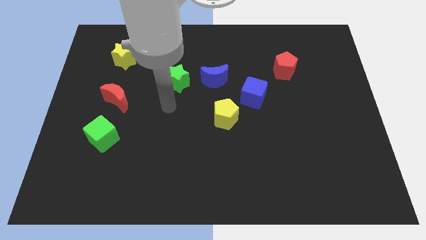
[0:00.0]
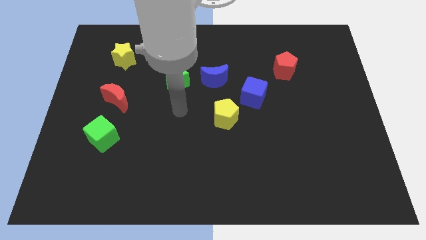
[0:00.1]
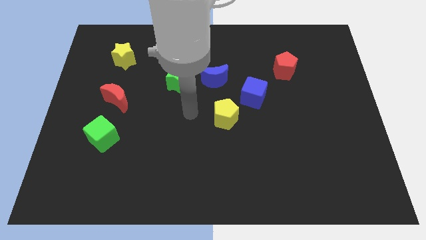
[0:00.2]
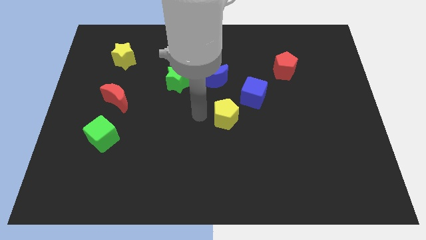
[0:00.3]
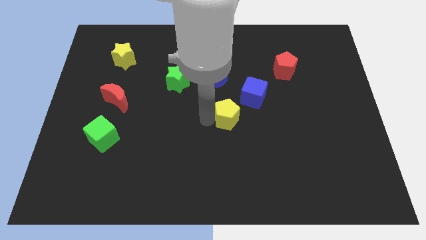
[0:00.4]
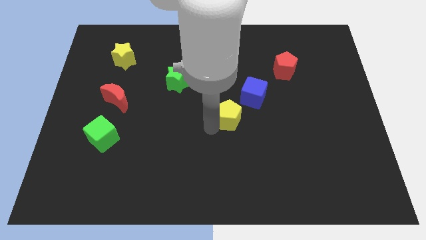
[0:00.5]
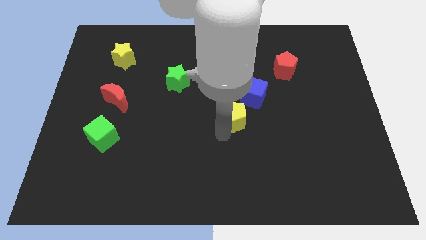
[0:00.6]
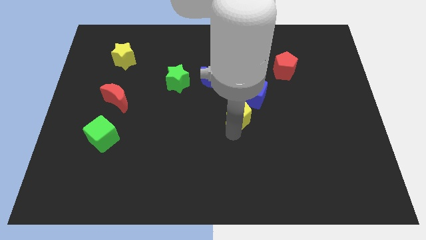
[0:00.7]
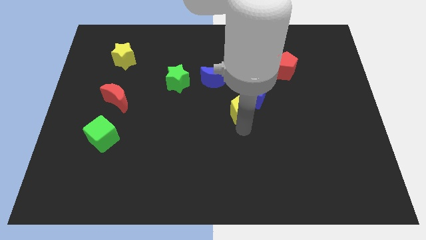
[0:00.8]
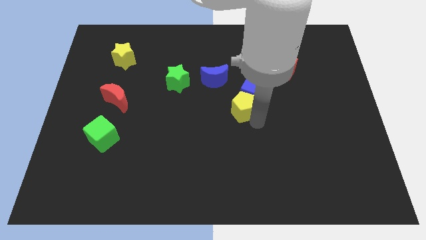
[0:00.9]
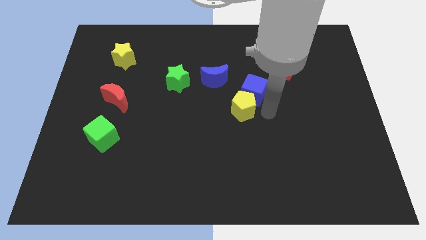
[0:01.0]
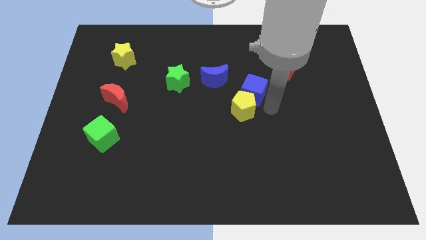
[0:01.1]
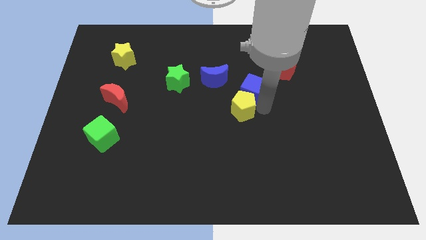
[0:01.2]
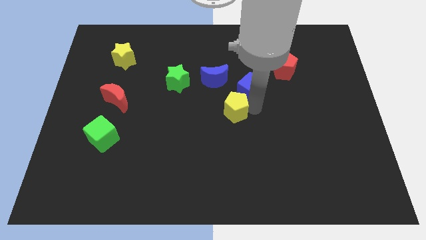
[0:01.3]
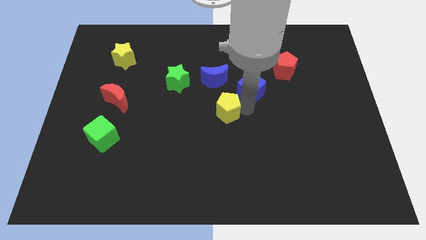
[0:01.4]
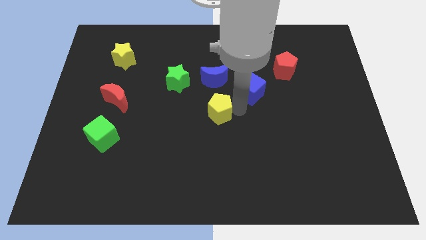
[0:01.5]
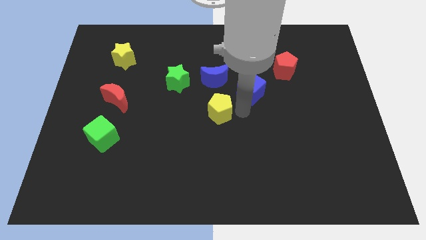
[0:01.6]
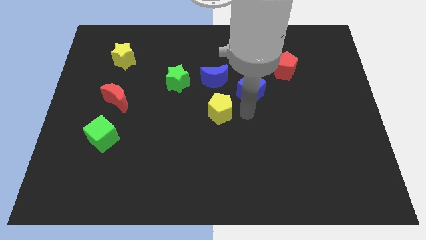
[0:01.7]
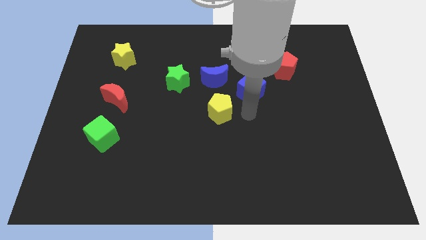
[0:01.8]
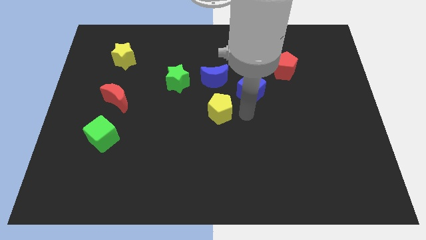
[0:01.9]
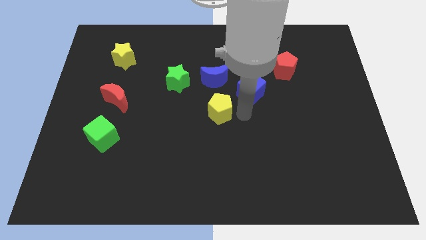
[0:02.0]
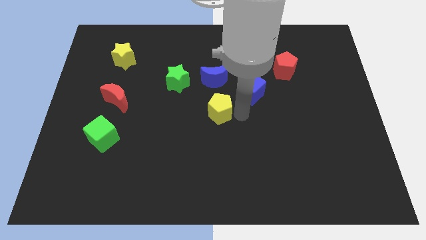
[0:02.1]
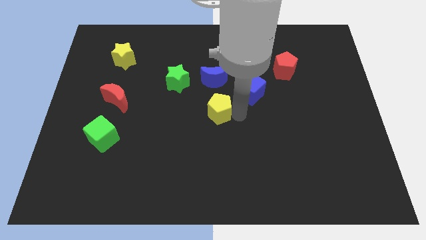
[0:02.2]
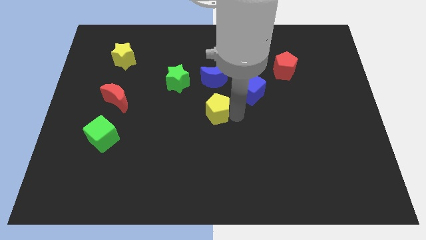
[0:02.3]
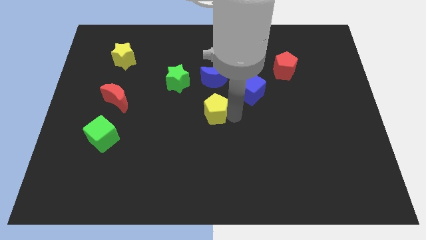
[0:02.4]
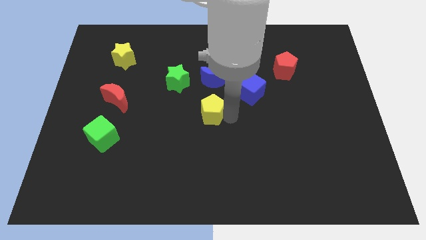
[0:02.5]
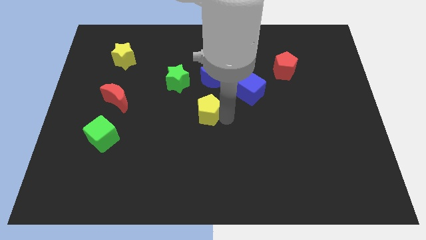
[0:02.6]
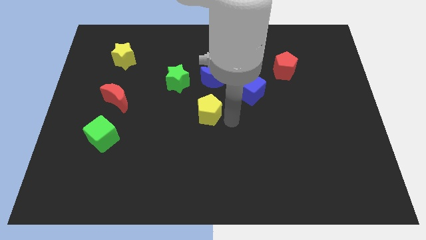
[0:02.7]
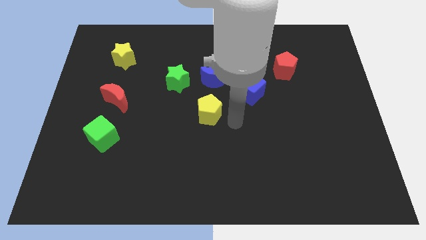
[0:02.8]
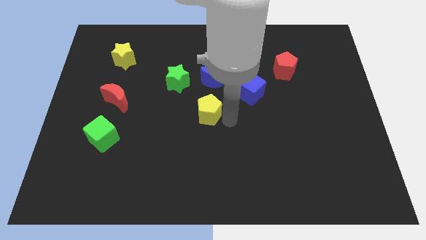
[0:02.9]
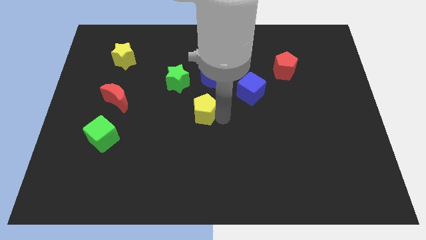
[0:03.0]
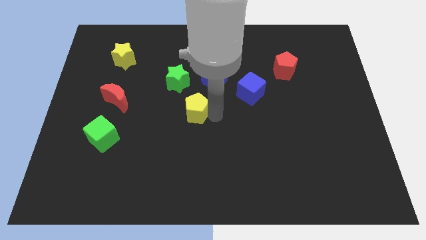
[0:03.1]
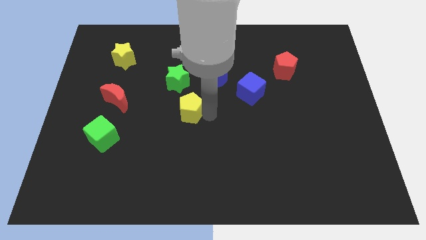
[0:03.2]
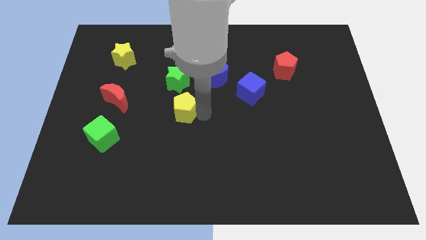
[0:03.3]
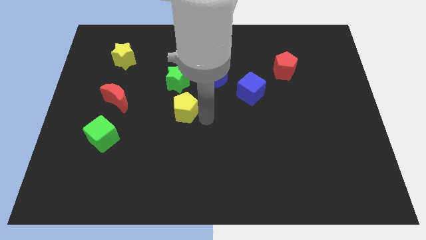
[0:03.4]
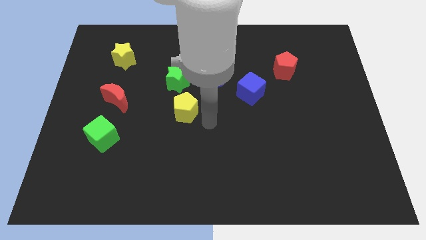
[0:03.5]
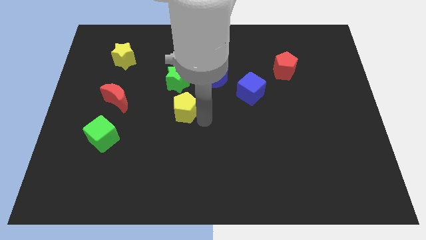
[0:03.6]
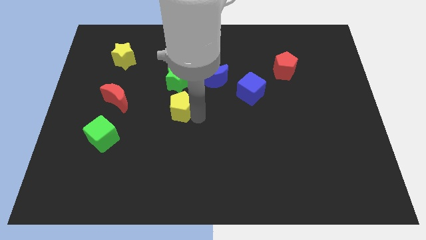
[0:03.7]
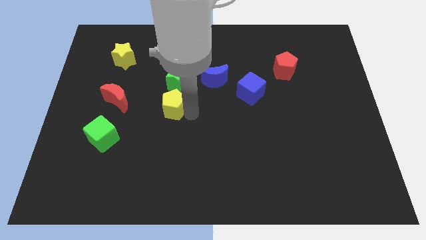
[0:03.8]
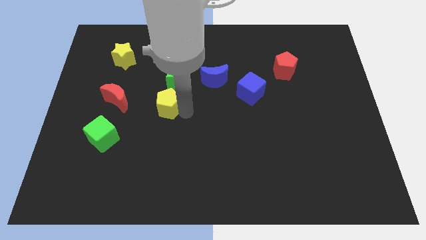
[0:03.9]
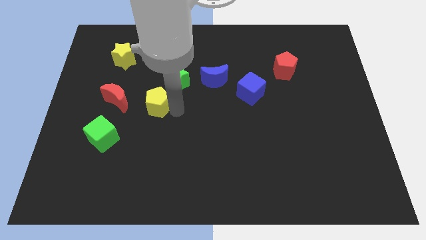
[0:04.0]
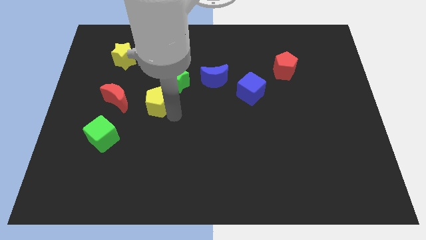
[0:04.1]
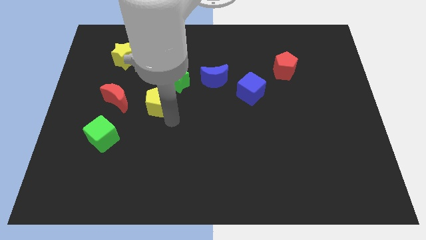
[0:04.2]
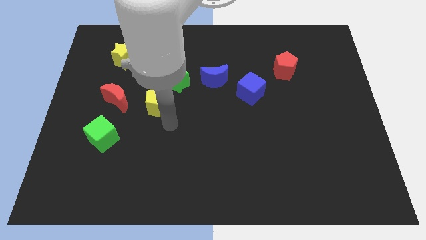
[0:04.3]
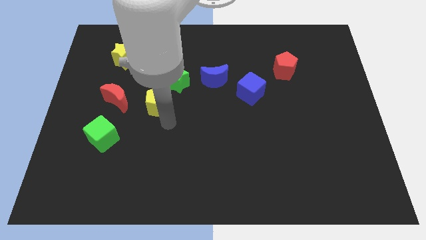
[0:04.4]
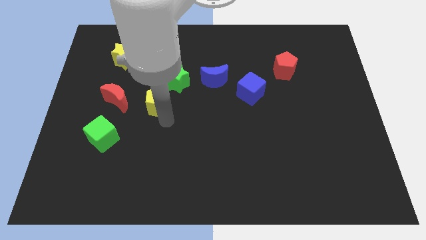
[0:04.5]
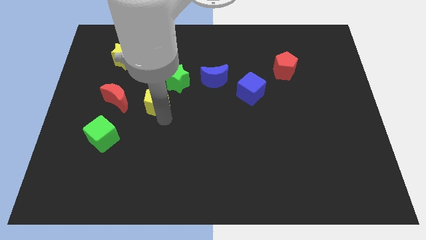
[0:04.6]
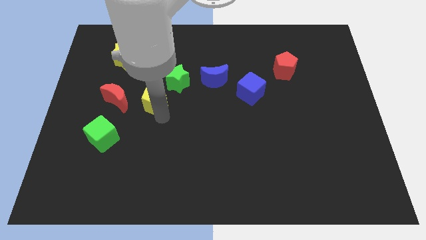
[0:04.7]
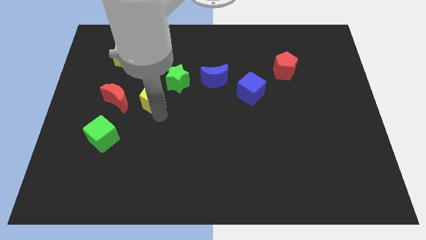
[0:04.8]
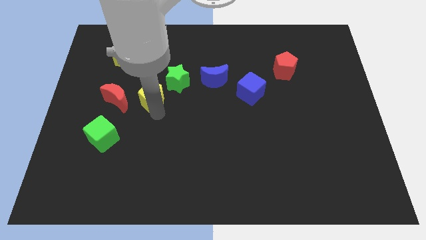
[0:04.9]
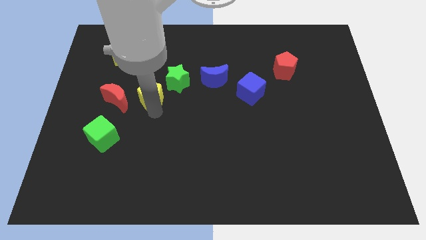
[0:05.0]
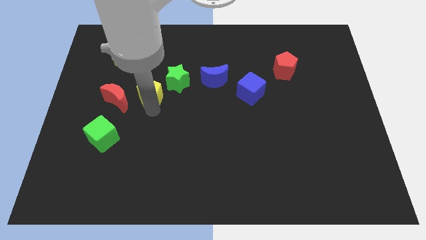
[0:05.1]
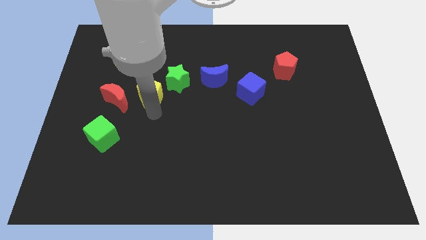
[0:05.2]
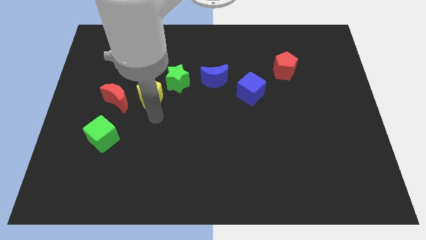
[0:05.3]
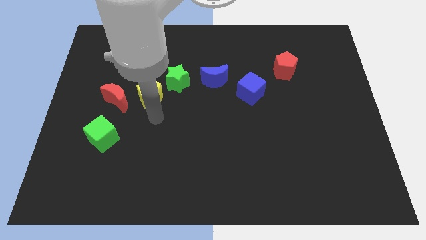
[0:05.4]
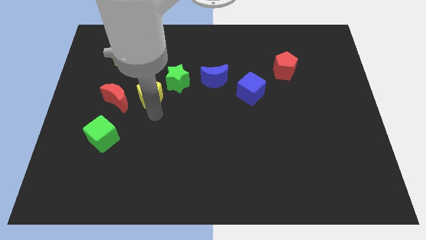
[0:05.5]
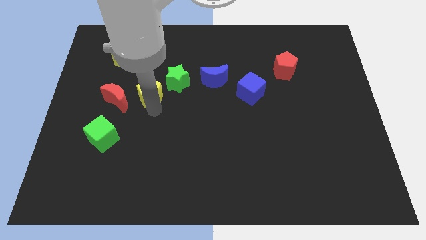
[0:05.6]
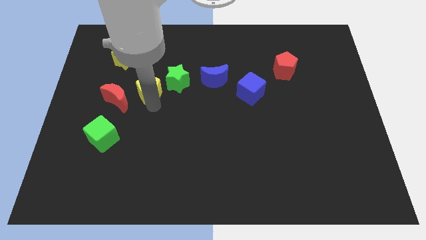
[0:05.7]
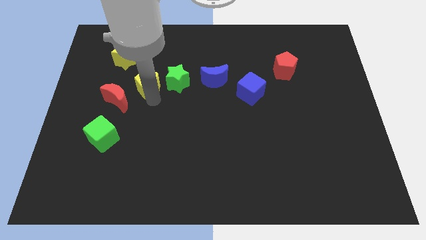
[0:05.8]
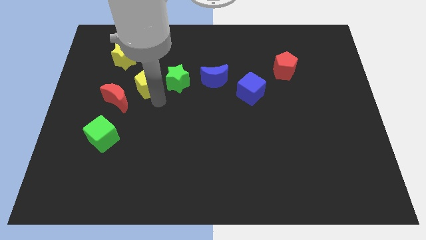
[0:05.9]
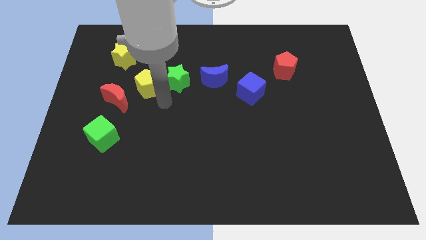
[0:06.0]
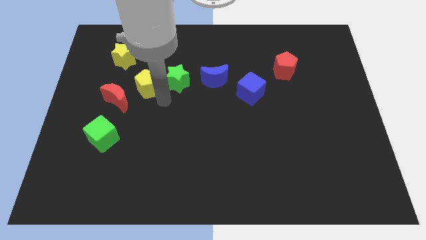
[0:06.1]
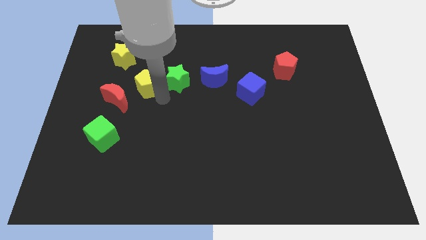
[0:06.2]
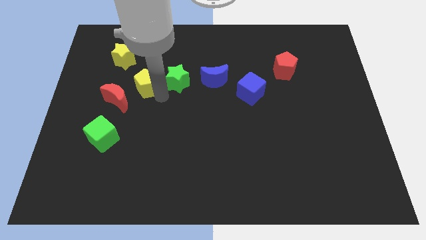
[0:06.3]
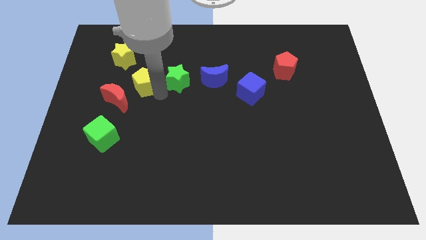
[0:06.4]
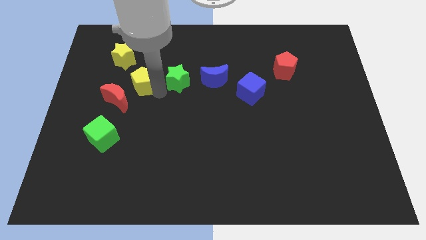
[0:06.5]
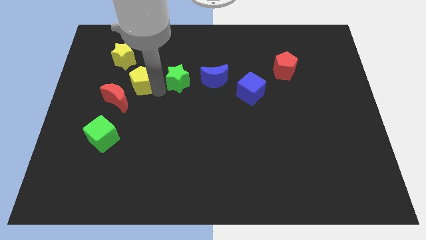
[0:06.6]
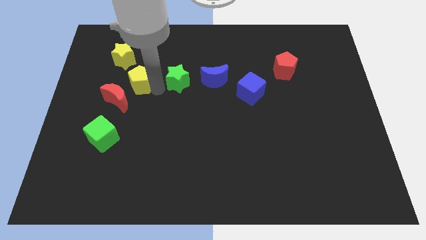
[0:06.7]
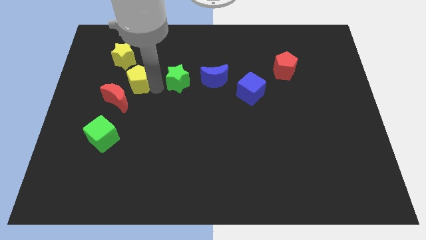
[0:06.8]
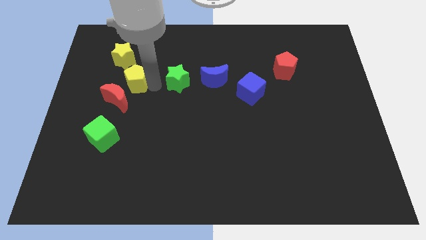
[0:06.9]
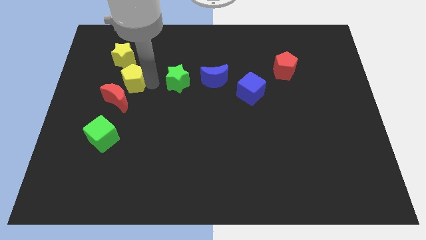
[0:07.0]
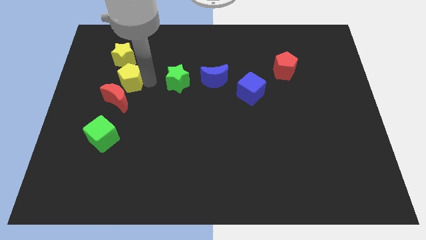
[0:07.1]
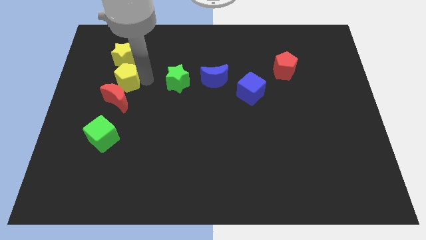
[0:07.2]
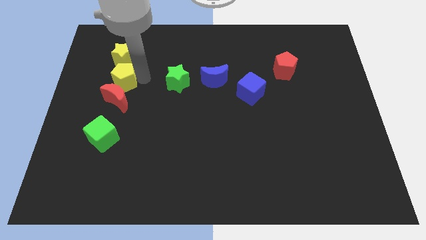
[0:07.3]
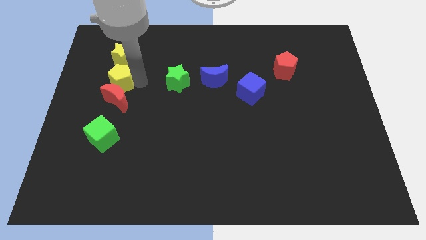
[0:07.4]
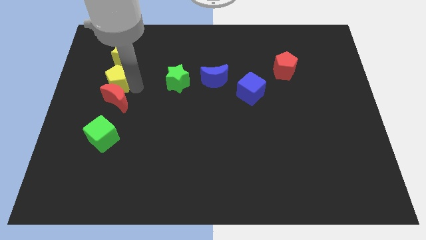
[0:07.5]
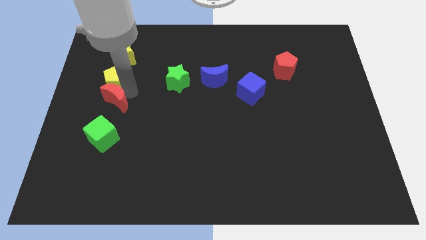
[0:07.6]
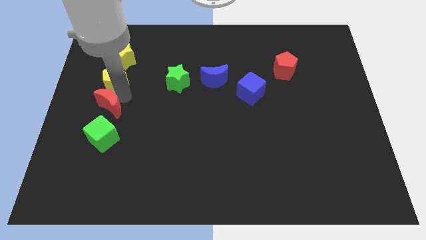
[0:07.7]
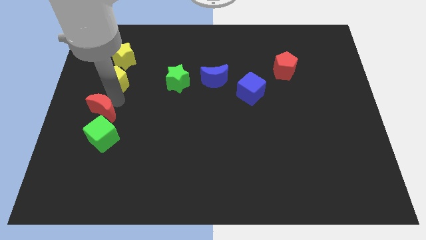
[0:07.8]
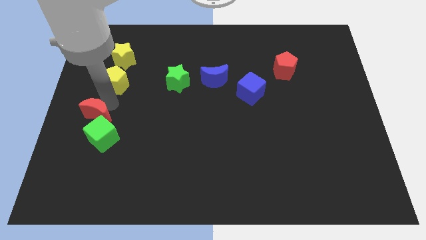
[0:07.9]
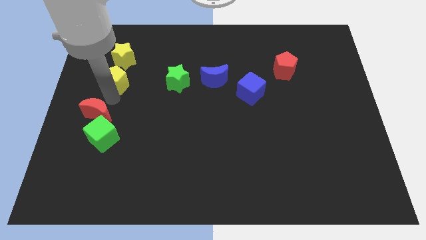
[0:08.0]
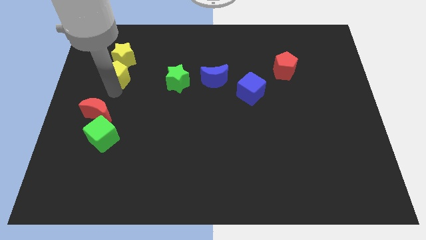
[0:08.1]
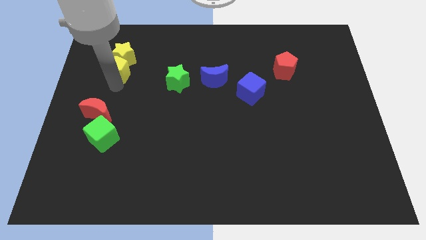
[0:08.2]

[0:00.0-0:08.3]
move the yellow pentagon towards the yellow star

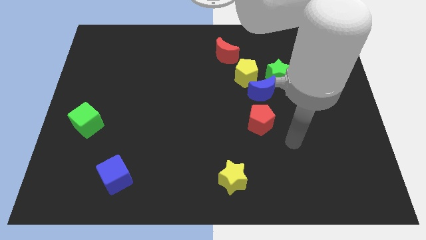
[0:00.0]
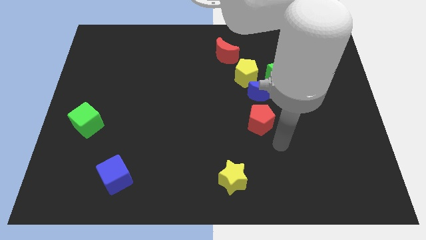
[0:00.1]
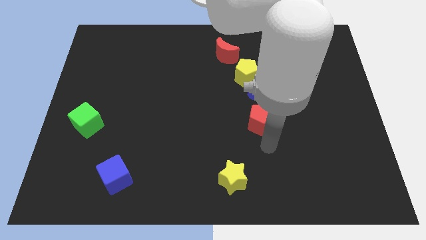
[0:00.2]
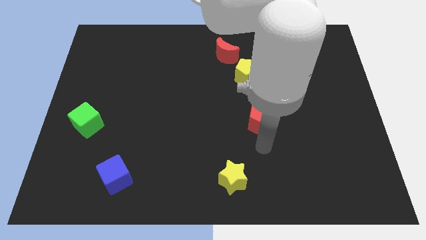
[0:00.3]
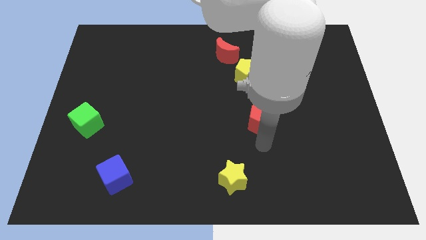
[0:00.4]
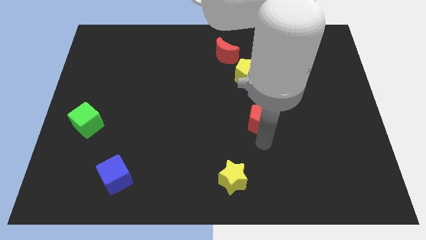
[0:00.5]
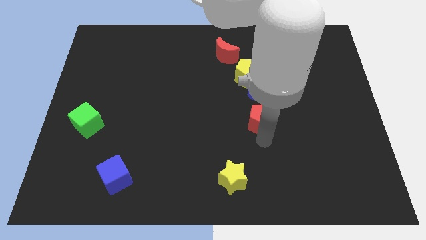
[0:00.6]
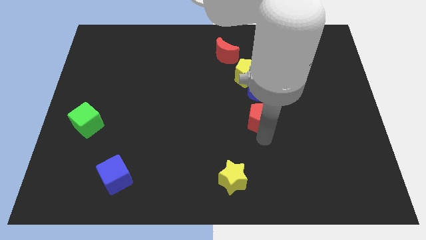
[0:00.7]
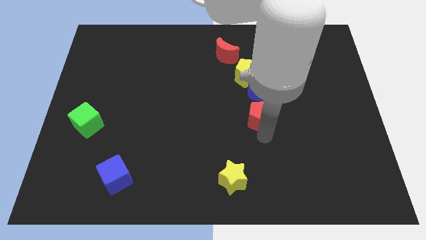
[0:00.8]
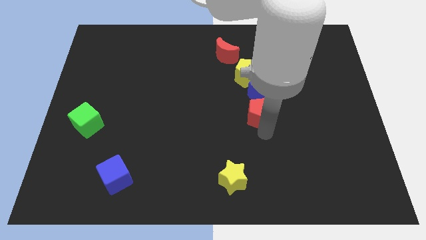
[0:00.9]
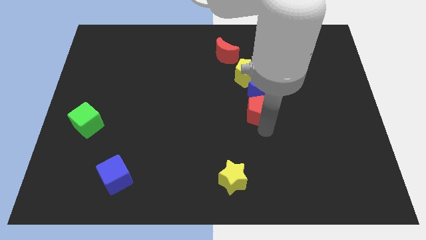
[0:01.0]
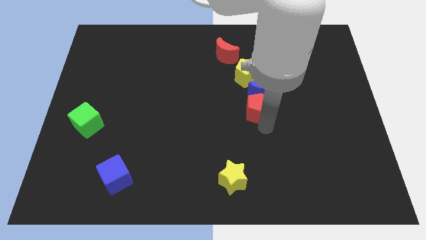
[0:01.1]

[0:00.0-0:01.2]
slide the red pentagon next to the blue moon
